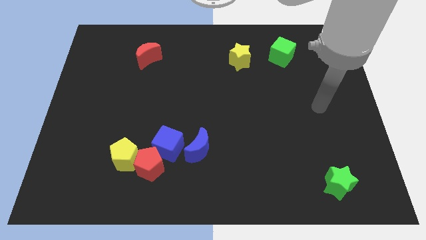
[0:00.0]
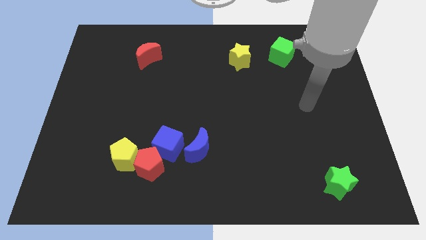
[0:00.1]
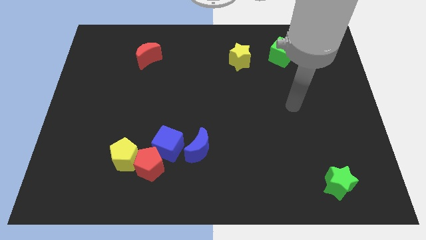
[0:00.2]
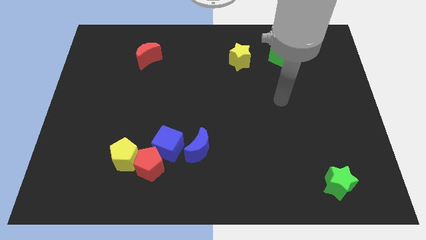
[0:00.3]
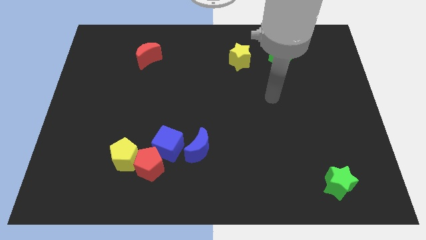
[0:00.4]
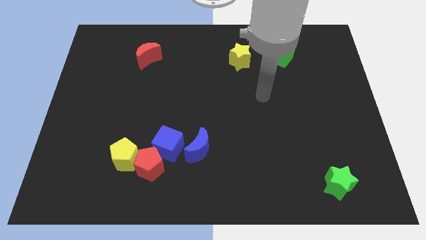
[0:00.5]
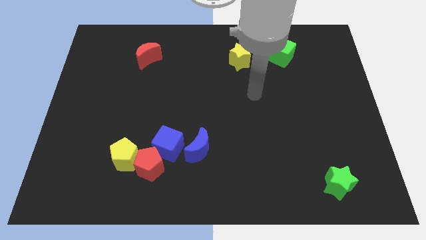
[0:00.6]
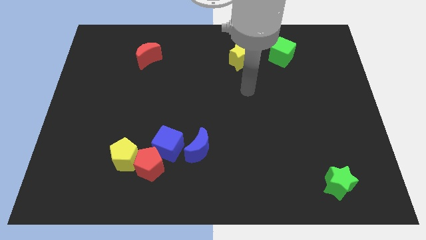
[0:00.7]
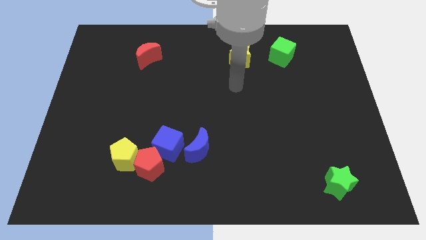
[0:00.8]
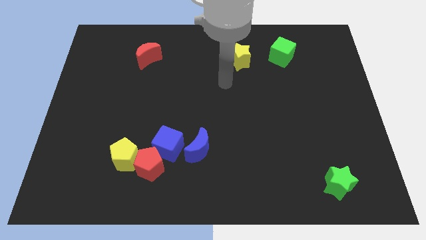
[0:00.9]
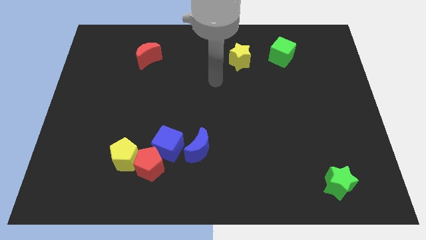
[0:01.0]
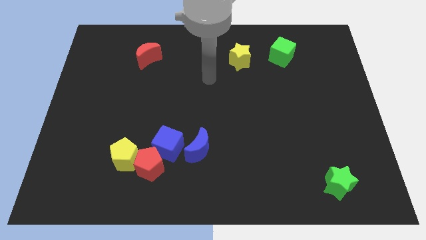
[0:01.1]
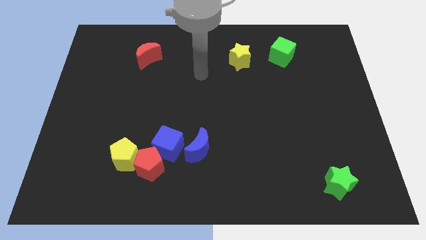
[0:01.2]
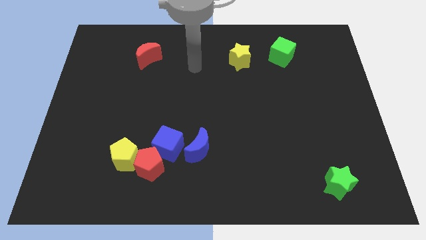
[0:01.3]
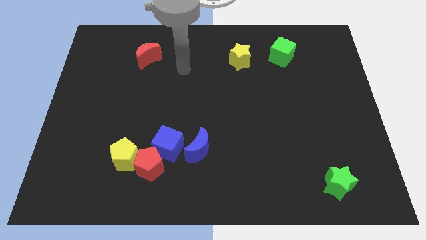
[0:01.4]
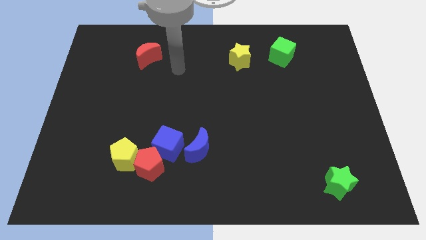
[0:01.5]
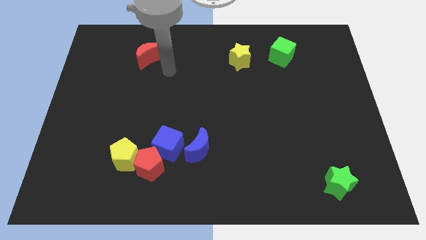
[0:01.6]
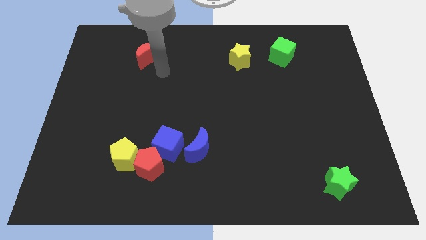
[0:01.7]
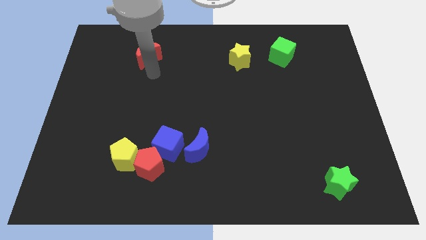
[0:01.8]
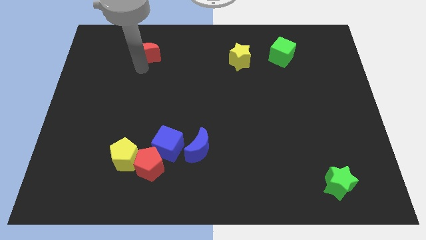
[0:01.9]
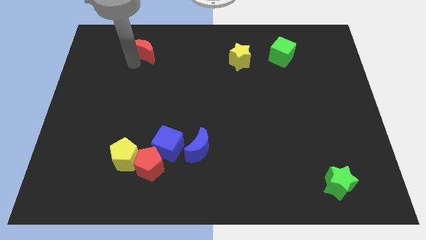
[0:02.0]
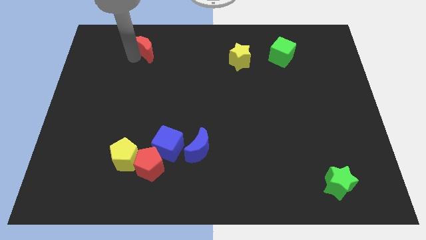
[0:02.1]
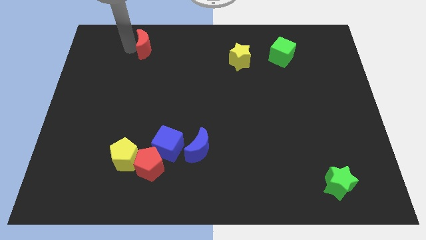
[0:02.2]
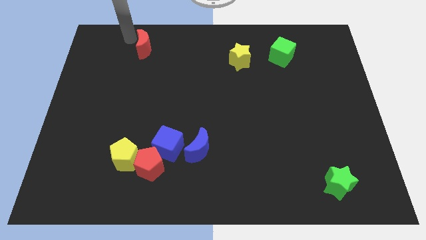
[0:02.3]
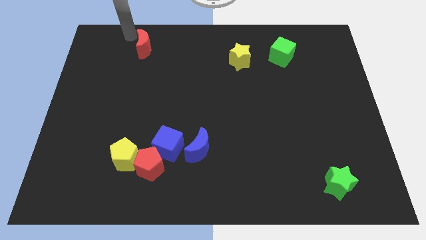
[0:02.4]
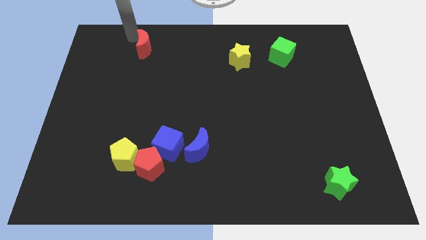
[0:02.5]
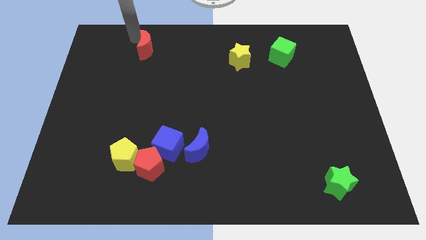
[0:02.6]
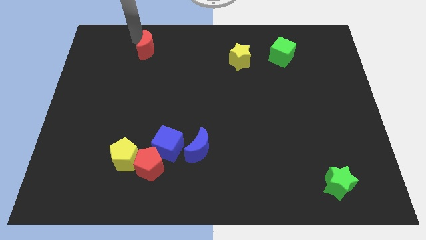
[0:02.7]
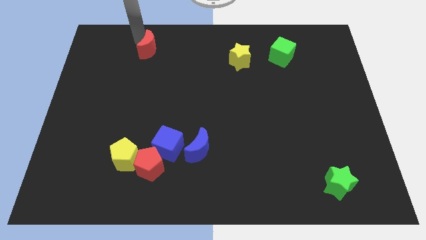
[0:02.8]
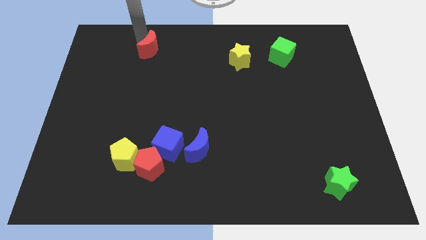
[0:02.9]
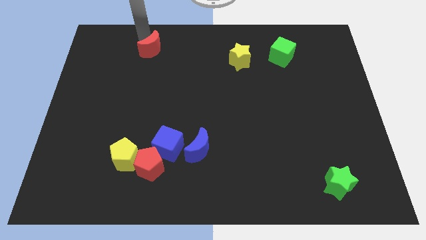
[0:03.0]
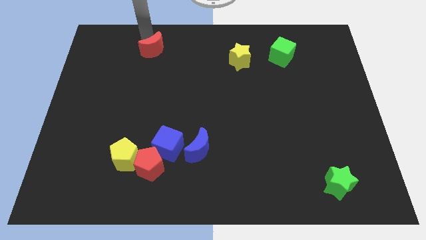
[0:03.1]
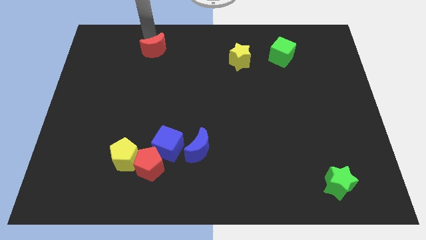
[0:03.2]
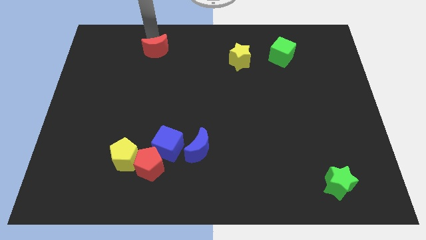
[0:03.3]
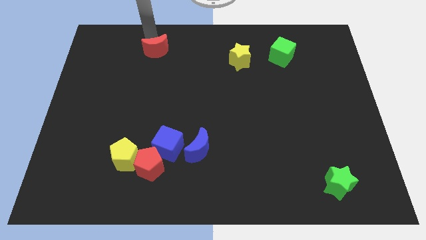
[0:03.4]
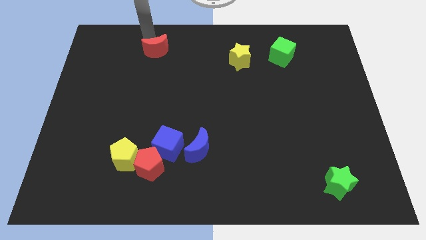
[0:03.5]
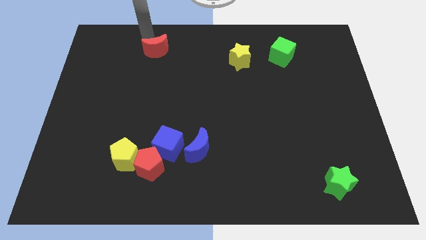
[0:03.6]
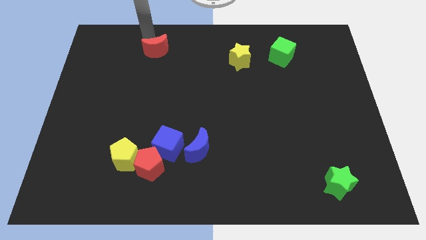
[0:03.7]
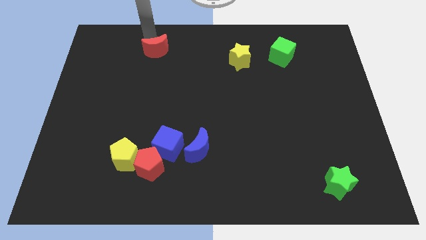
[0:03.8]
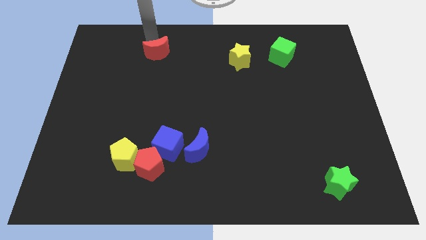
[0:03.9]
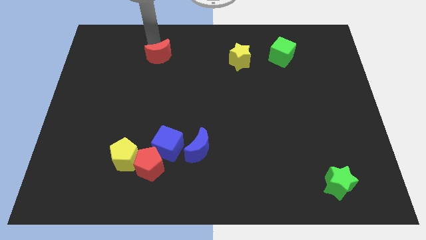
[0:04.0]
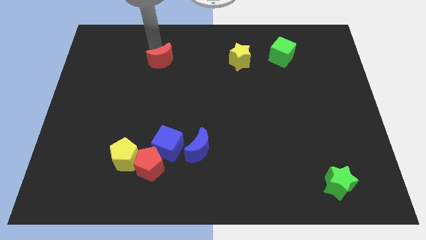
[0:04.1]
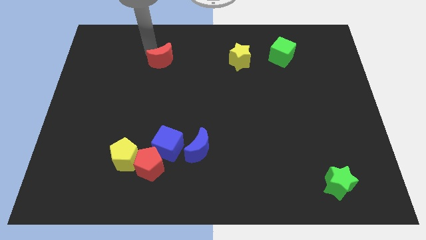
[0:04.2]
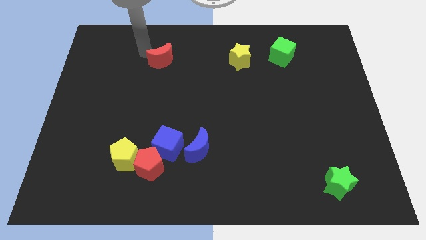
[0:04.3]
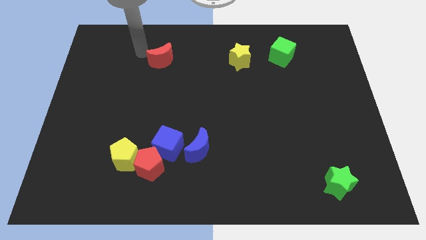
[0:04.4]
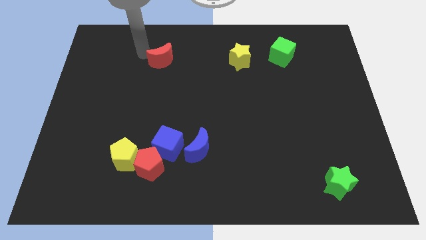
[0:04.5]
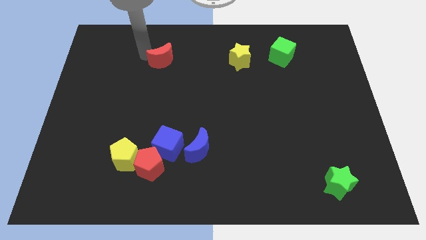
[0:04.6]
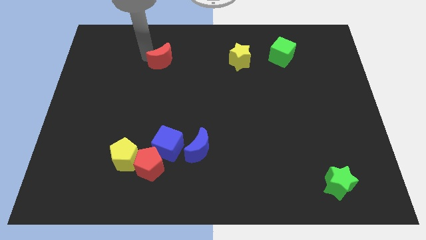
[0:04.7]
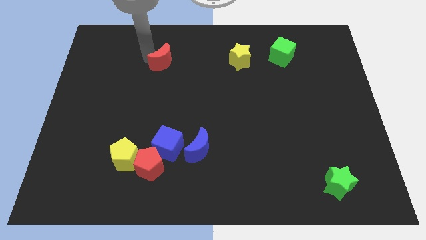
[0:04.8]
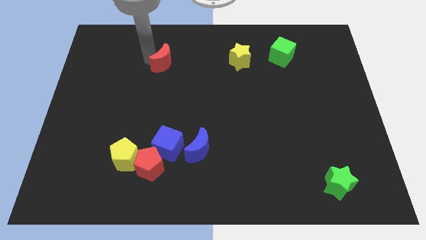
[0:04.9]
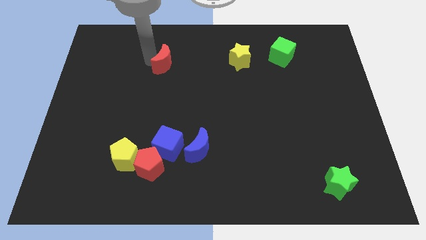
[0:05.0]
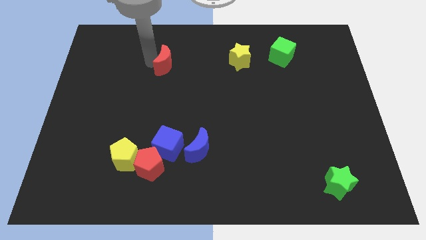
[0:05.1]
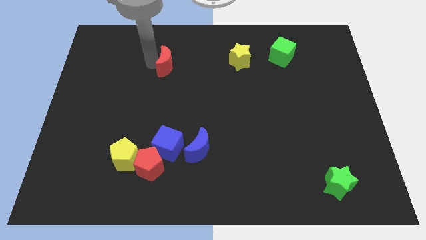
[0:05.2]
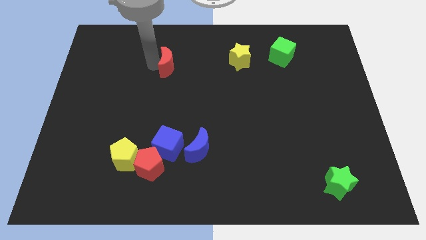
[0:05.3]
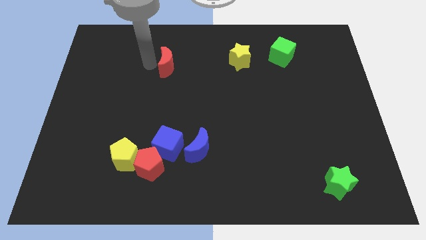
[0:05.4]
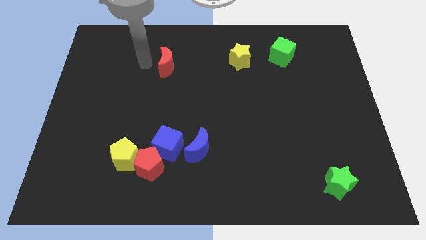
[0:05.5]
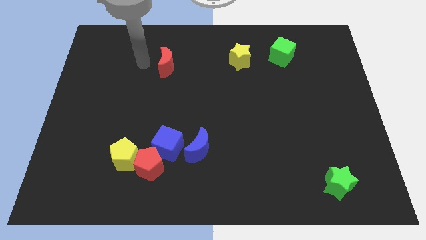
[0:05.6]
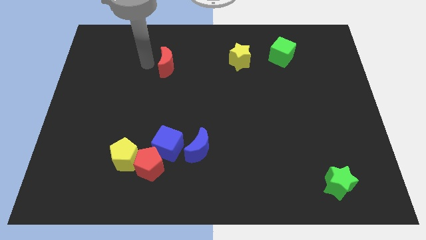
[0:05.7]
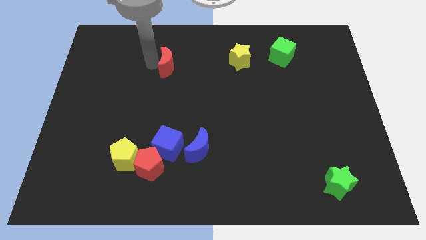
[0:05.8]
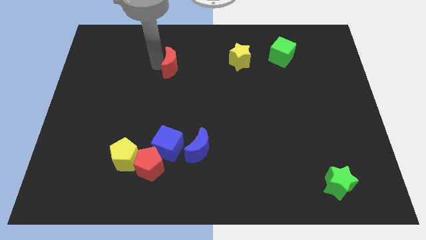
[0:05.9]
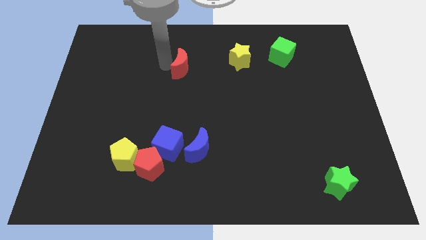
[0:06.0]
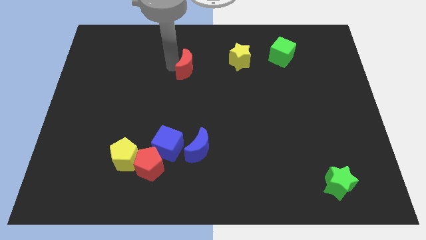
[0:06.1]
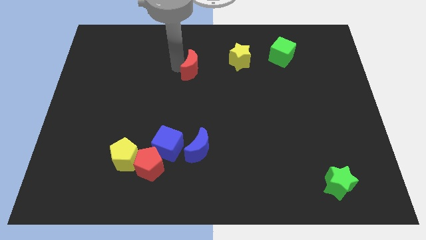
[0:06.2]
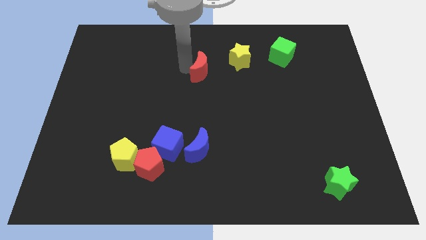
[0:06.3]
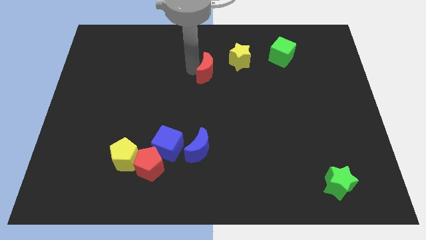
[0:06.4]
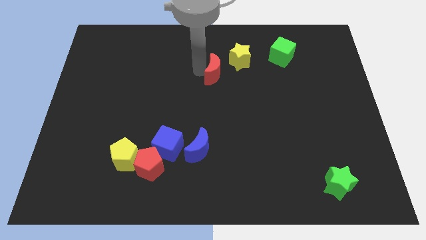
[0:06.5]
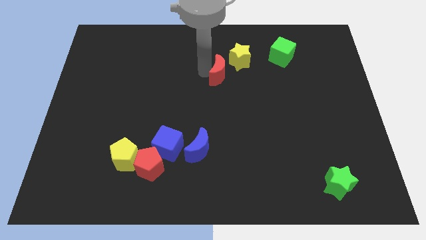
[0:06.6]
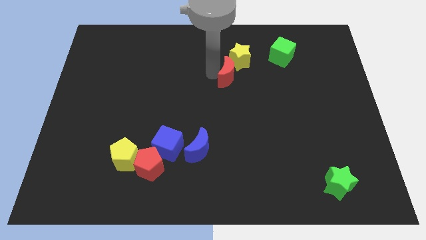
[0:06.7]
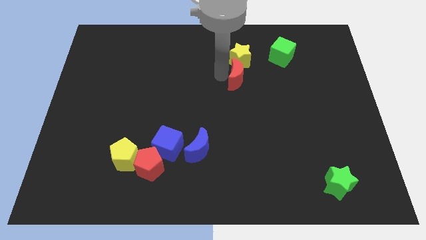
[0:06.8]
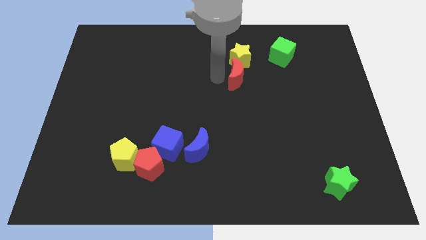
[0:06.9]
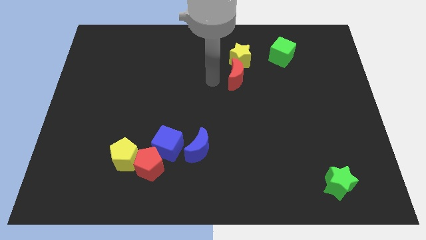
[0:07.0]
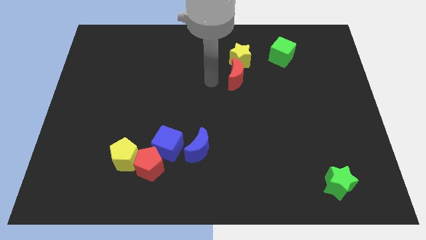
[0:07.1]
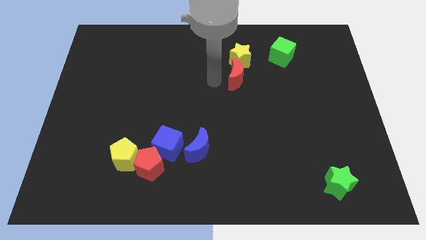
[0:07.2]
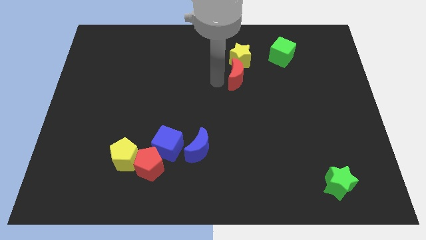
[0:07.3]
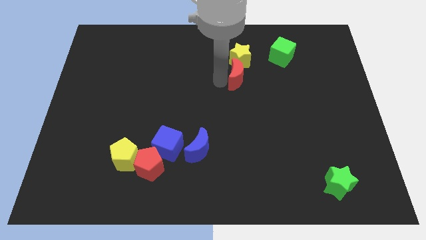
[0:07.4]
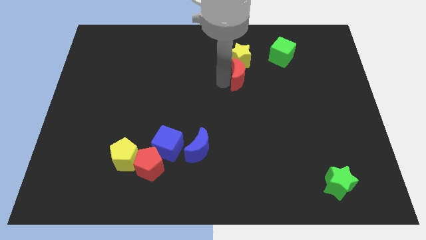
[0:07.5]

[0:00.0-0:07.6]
move the red moon diagonally down and to the right of the yellow star
